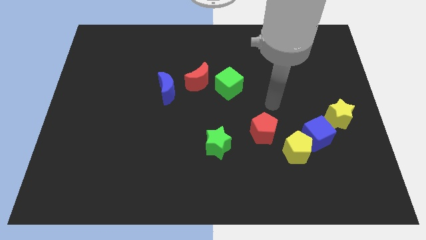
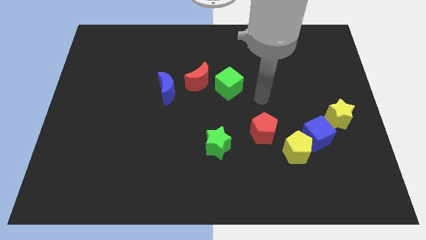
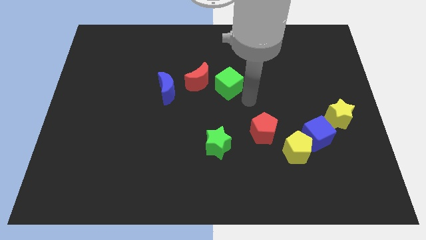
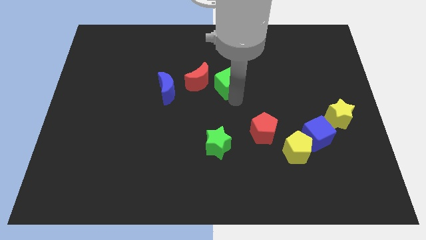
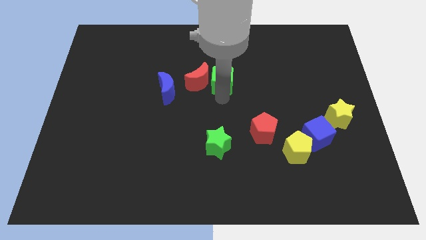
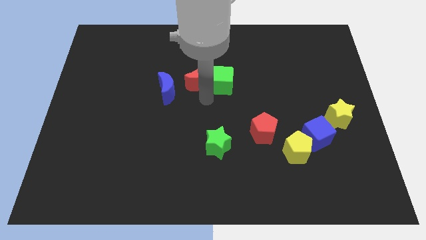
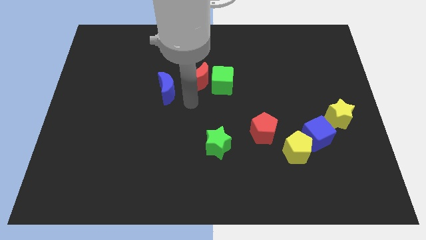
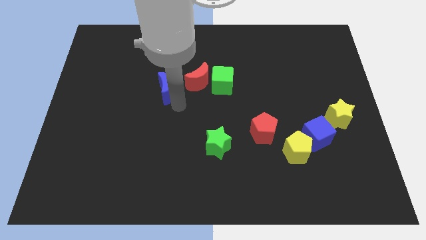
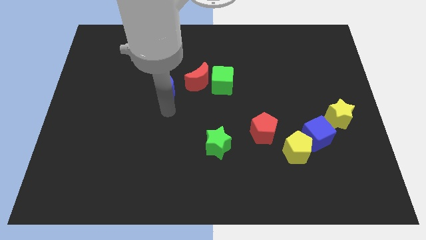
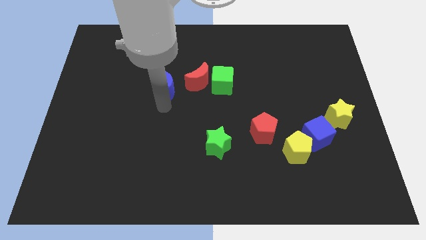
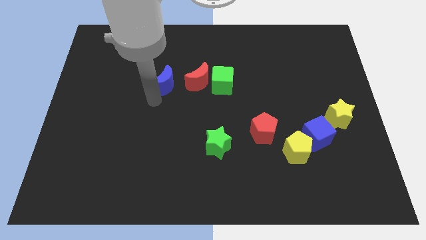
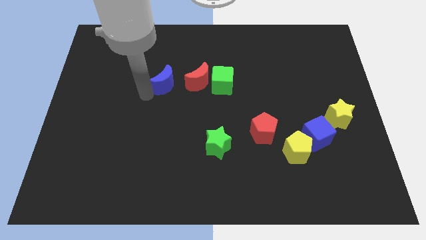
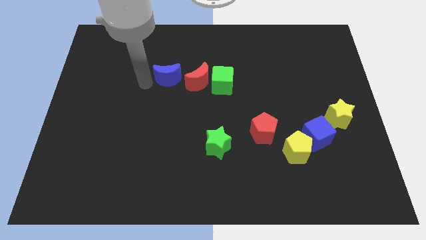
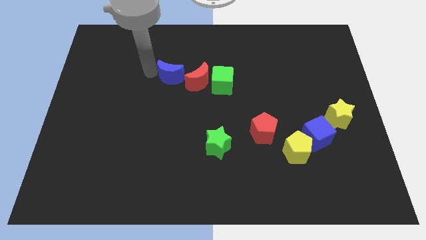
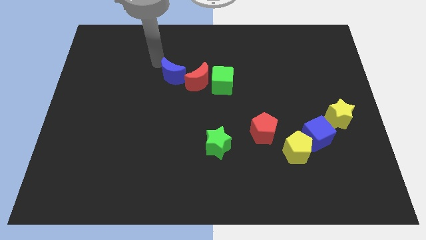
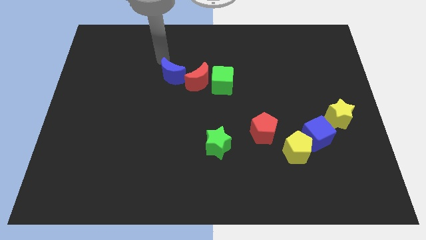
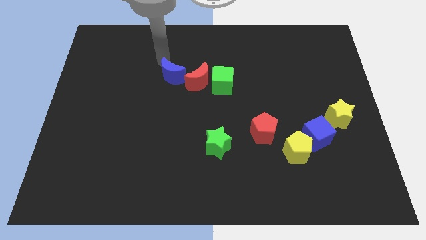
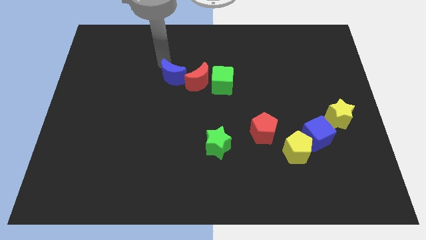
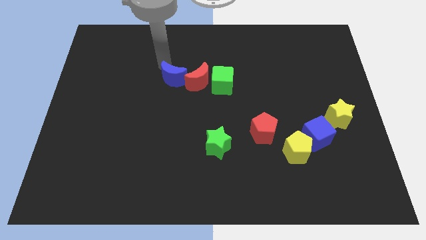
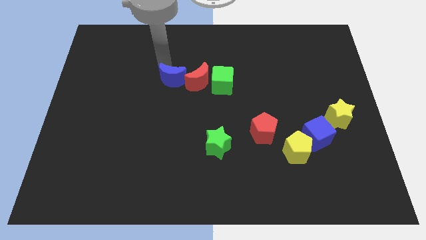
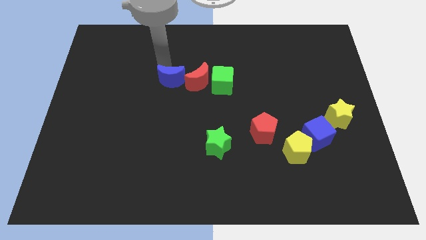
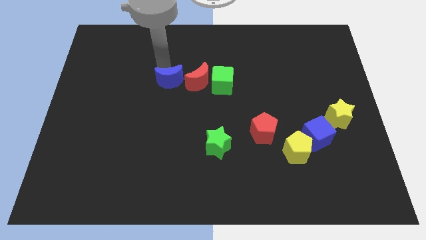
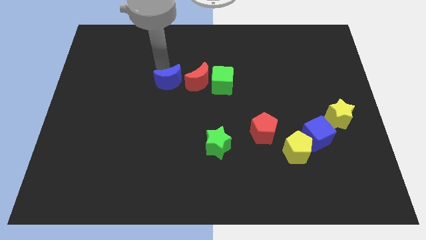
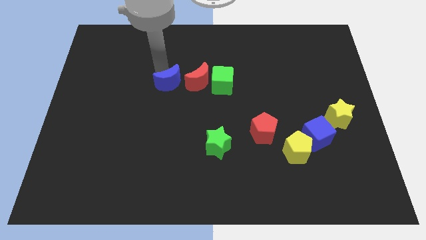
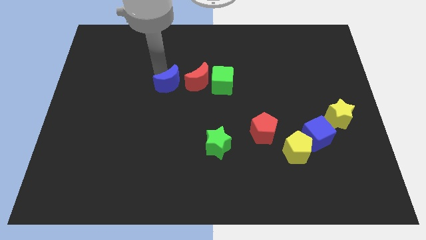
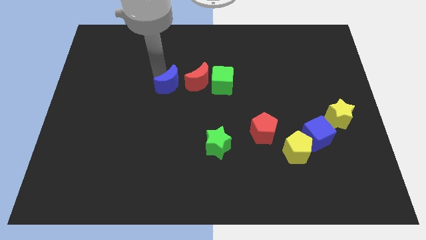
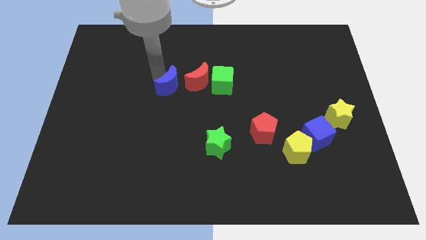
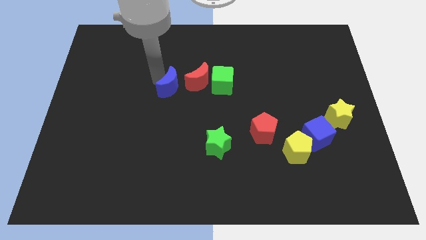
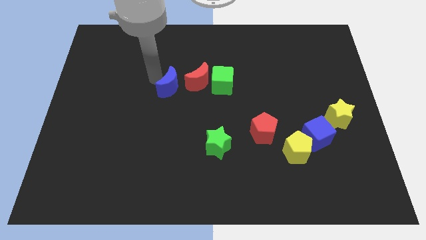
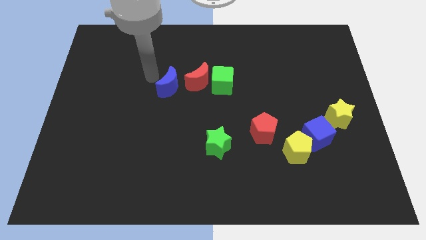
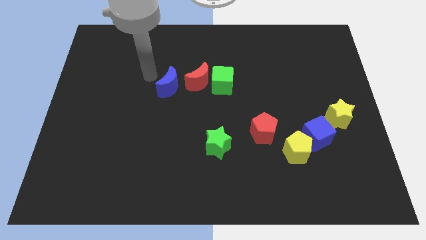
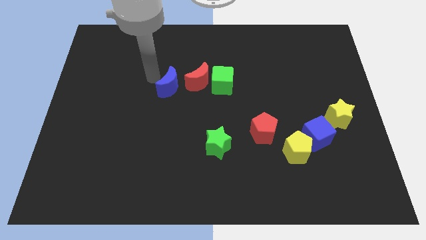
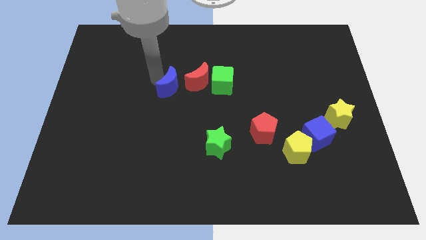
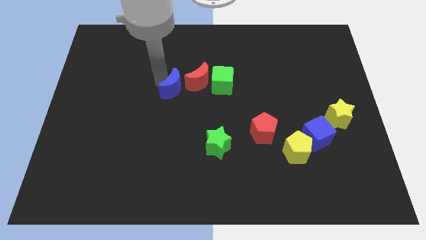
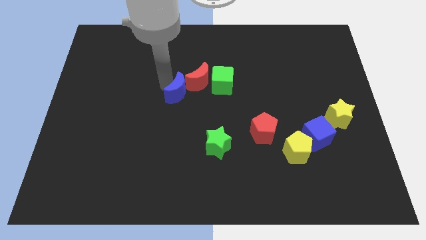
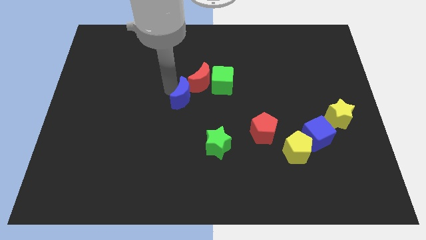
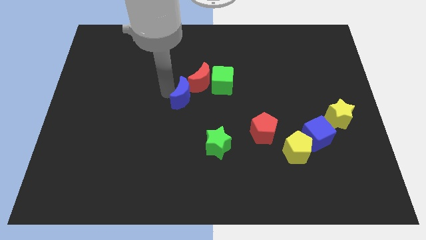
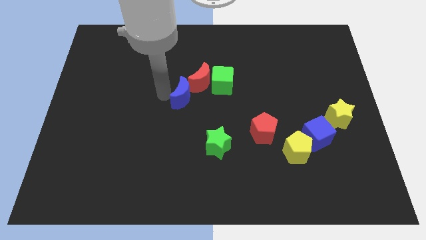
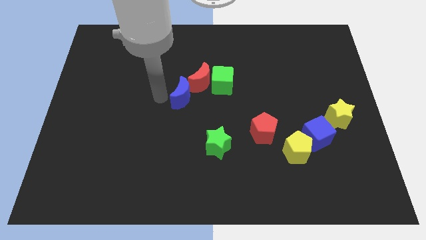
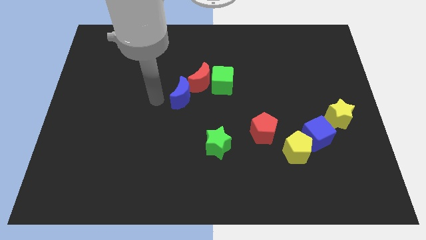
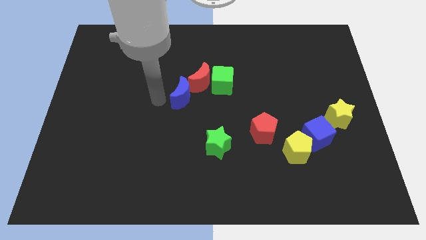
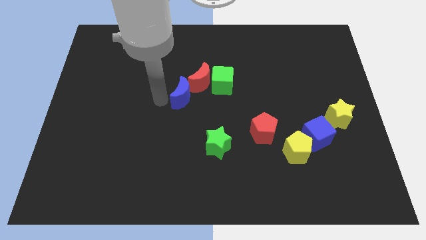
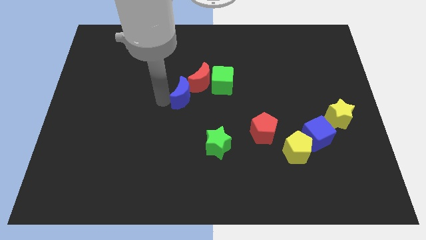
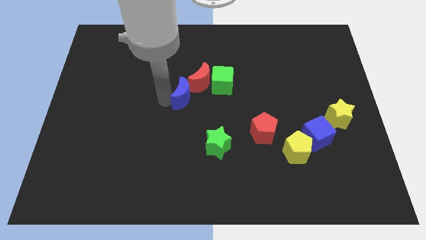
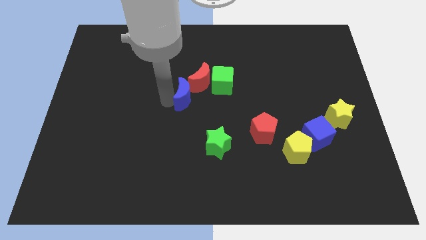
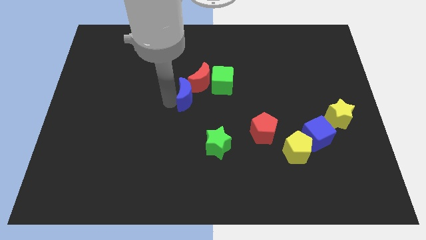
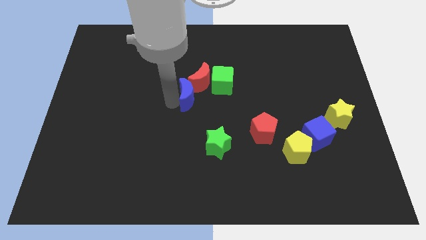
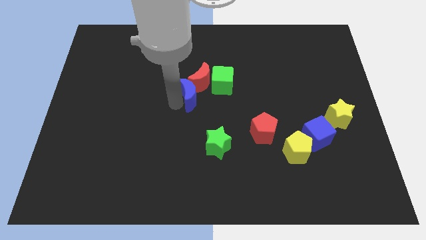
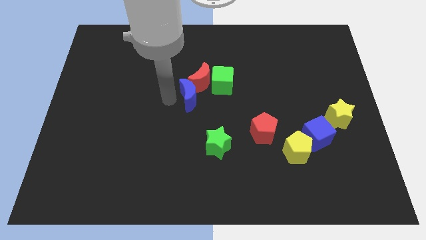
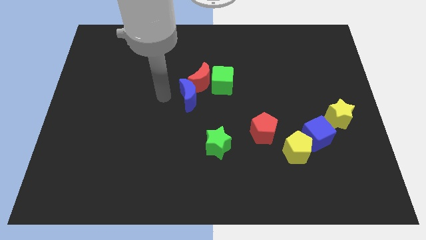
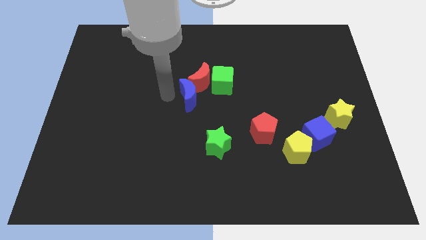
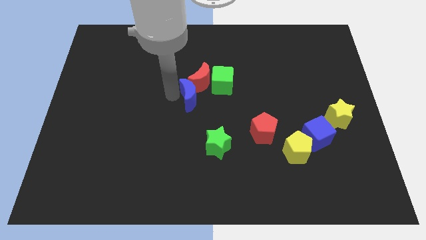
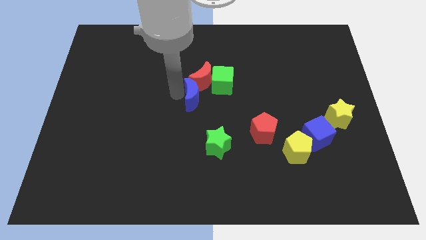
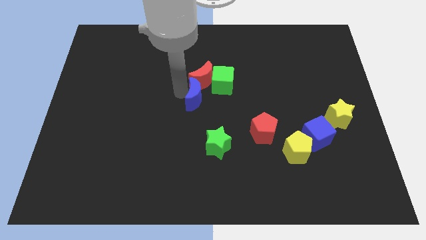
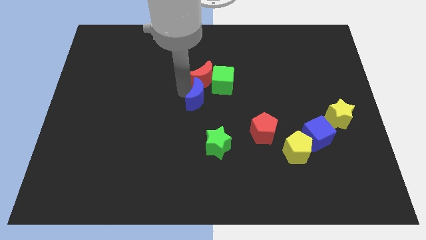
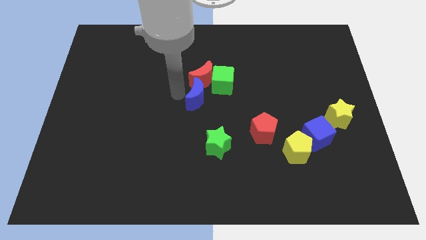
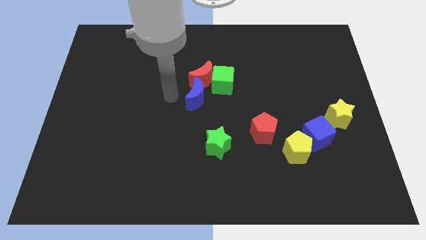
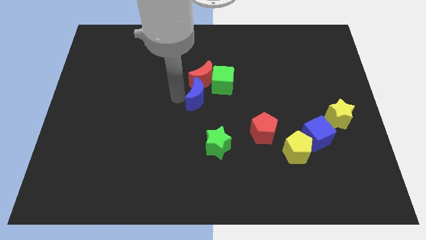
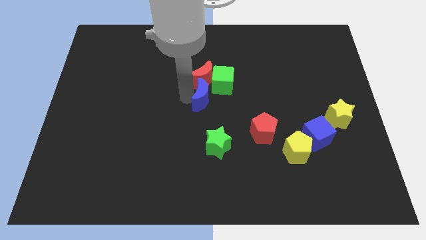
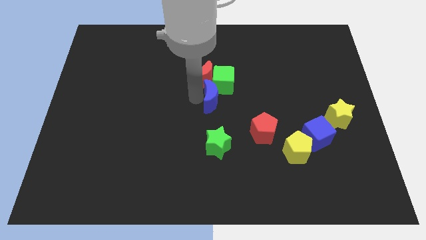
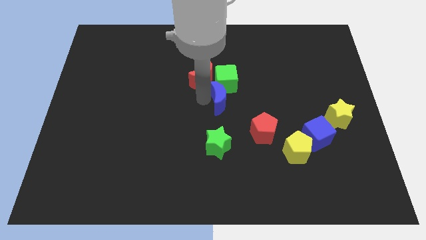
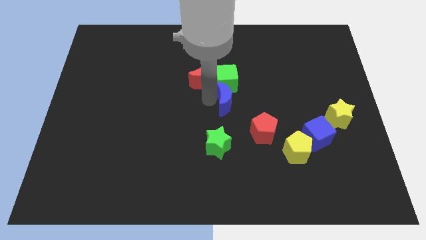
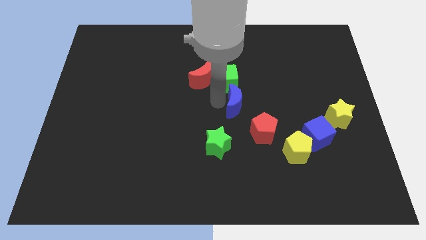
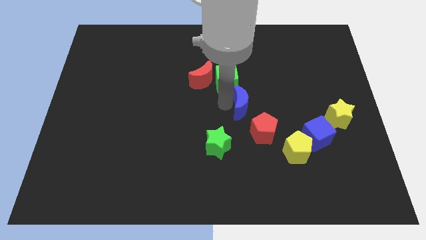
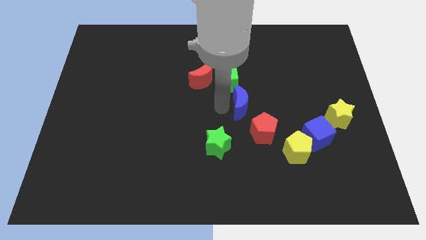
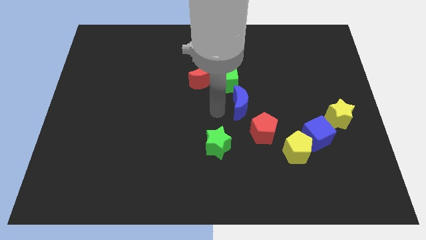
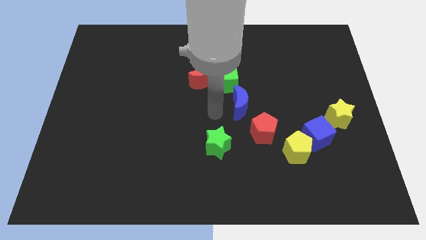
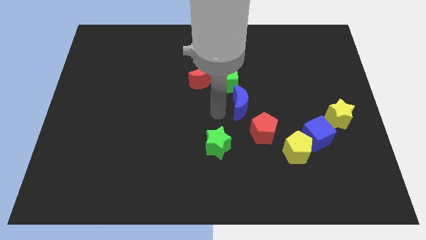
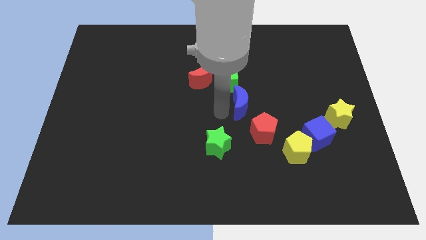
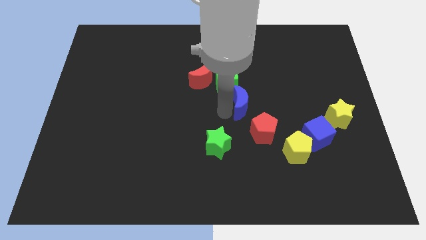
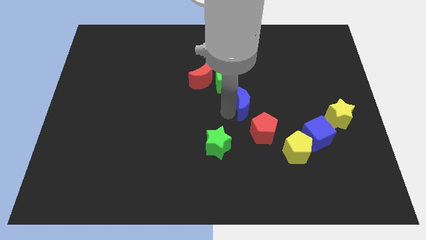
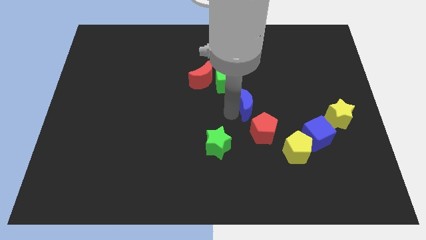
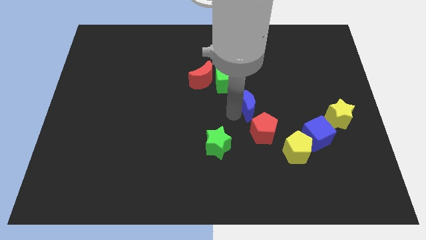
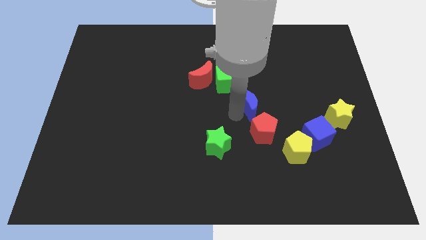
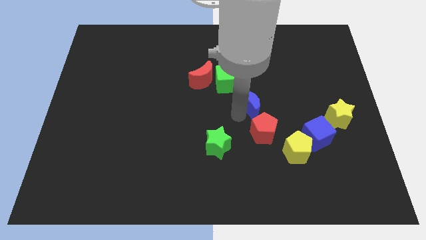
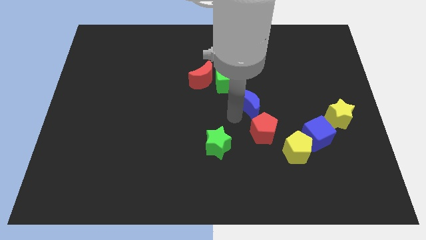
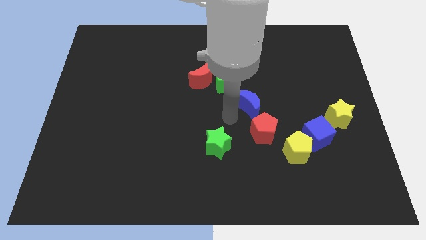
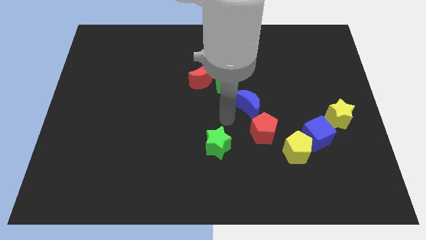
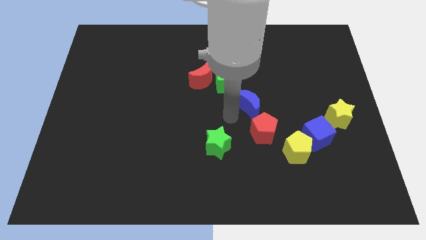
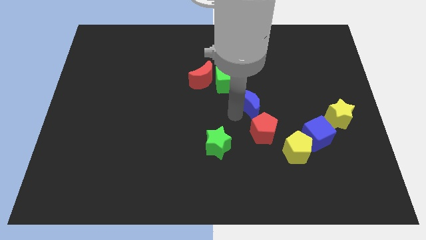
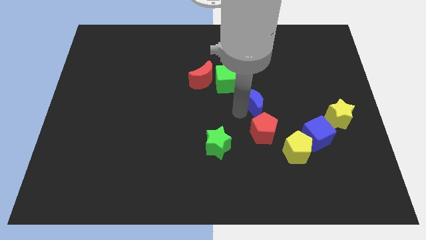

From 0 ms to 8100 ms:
push the blue moon to the right

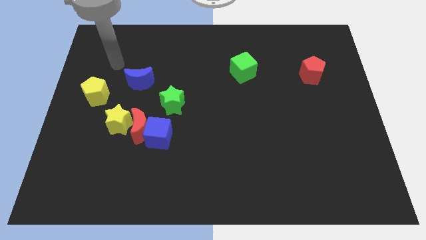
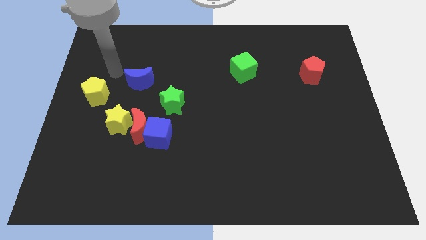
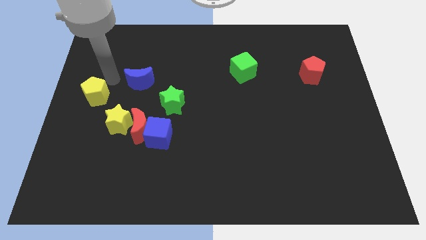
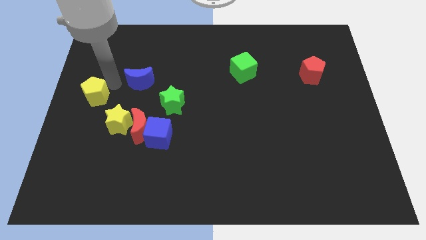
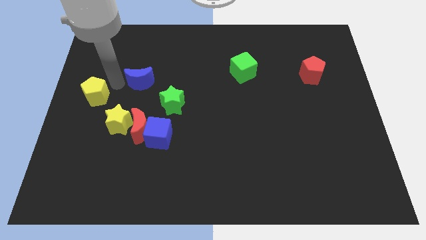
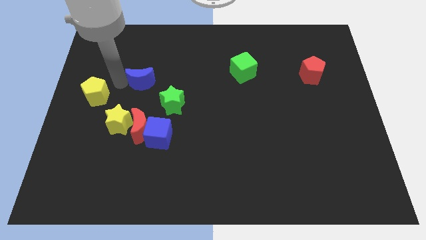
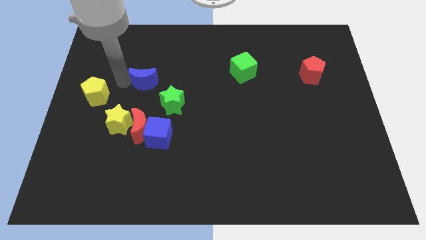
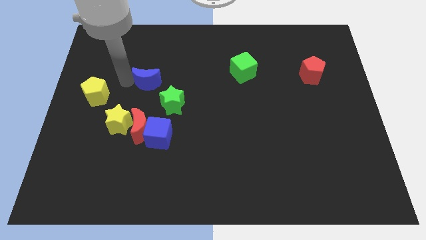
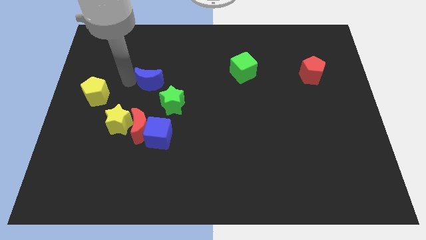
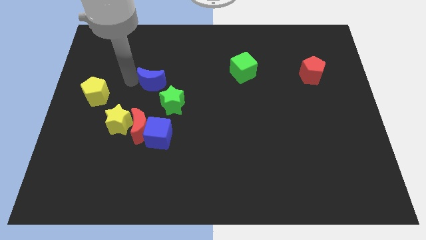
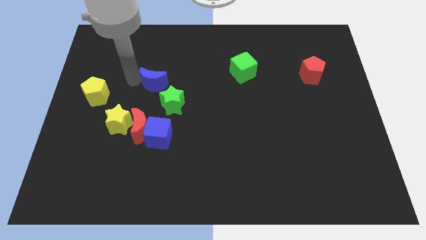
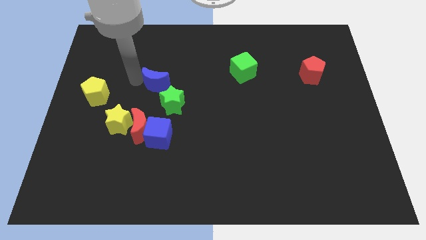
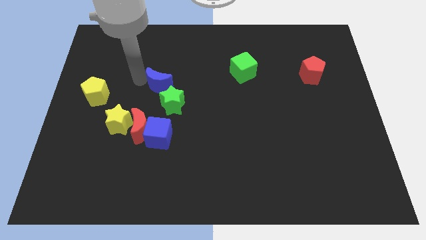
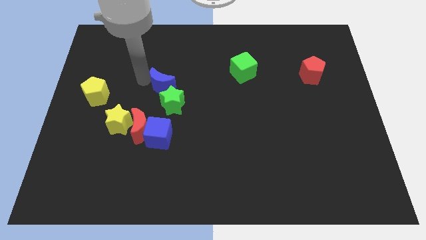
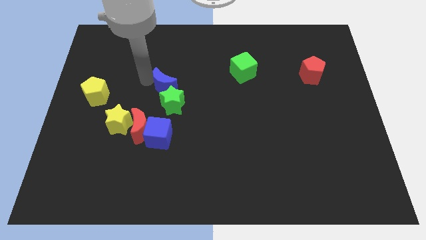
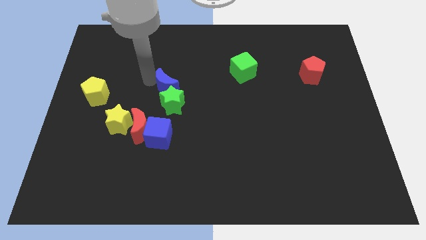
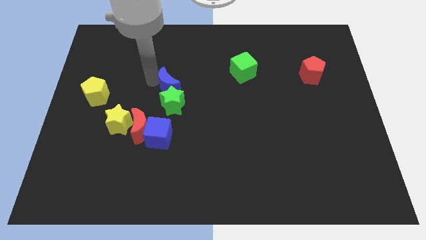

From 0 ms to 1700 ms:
slightly push the blue moon right
